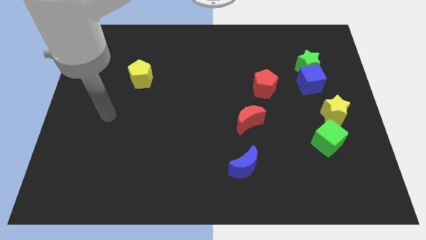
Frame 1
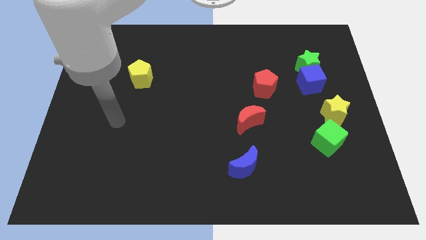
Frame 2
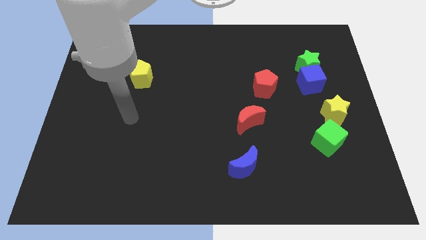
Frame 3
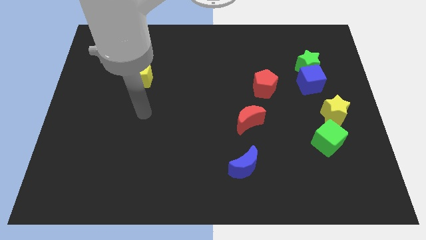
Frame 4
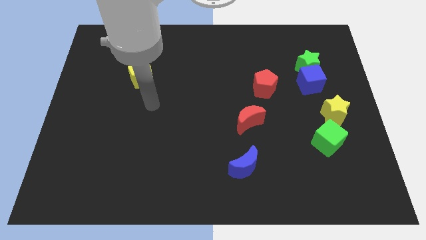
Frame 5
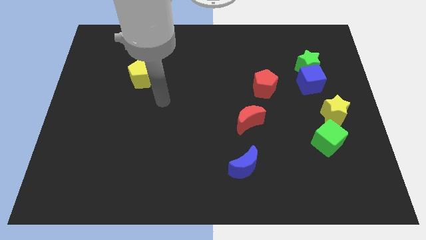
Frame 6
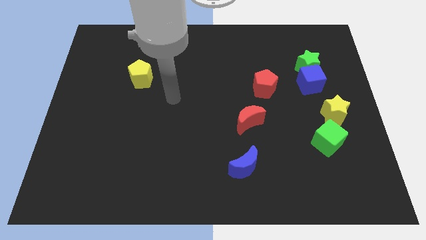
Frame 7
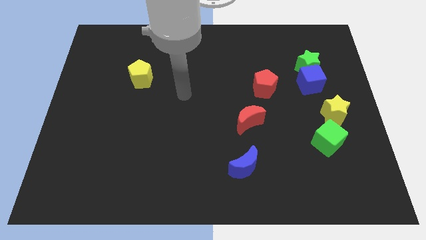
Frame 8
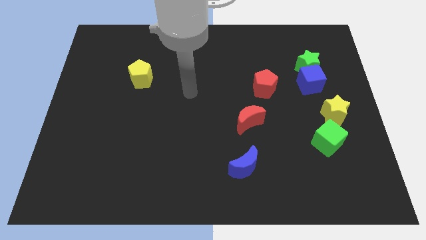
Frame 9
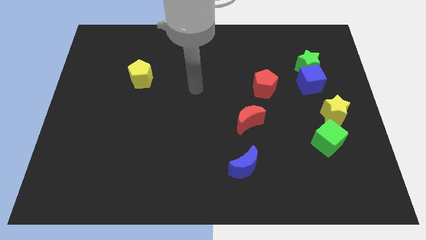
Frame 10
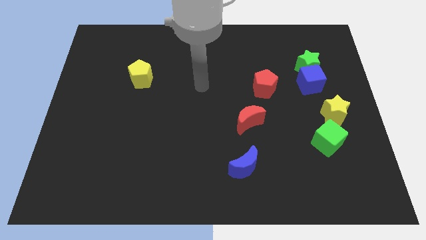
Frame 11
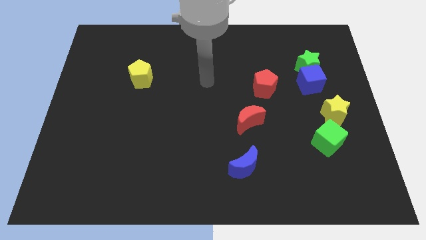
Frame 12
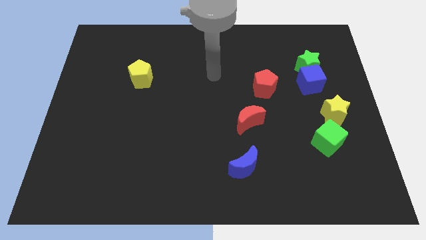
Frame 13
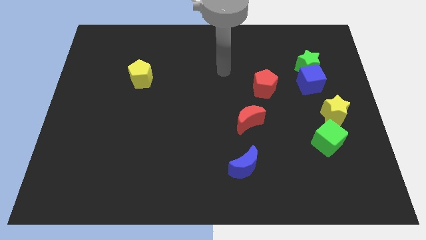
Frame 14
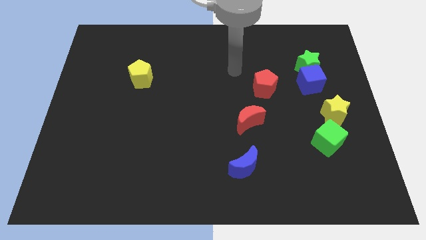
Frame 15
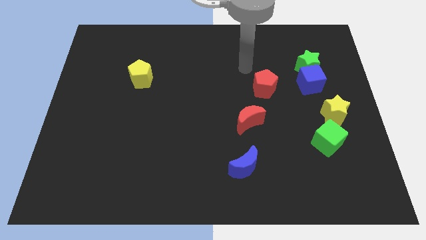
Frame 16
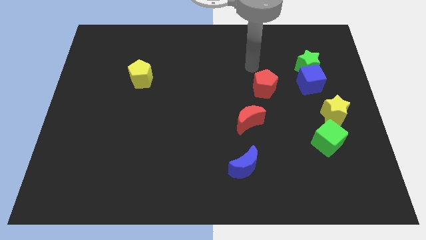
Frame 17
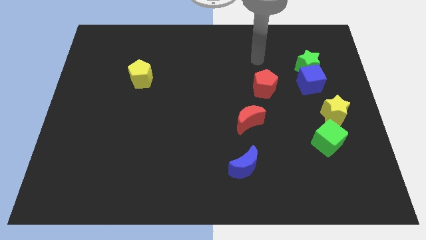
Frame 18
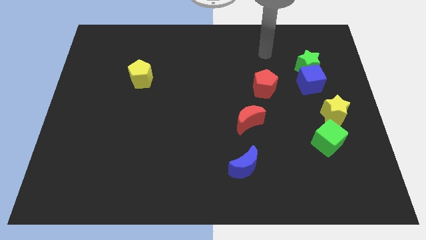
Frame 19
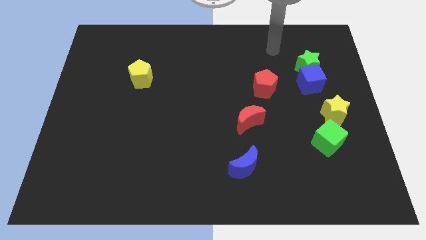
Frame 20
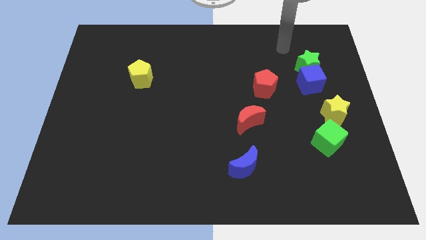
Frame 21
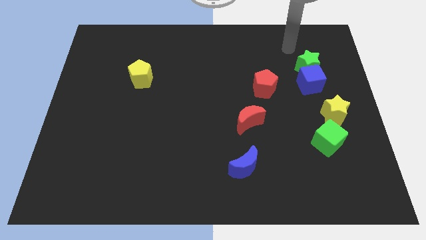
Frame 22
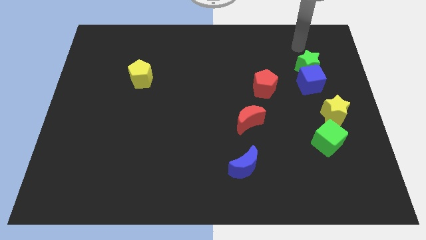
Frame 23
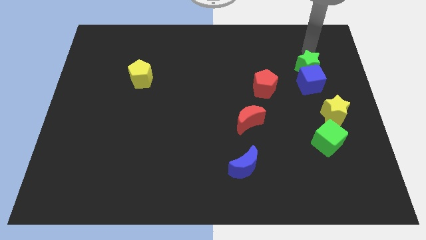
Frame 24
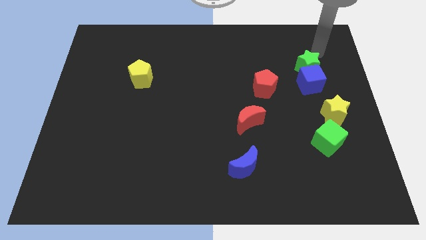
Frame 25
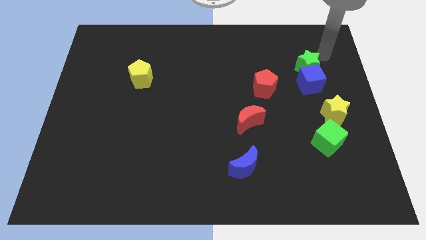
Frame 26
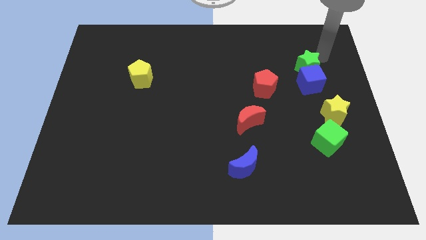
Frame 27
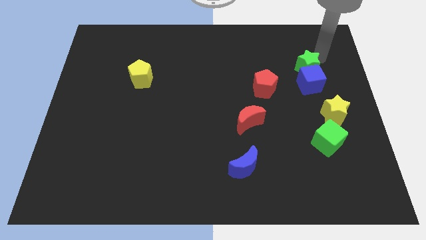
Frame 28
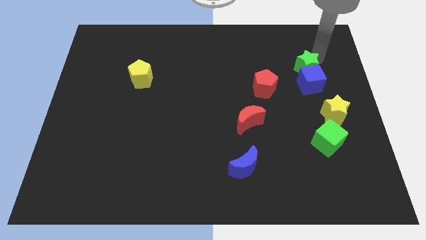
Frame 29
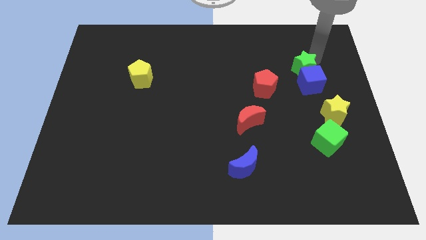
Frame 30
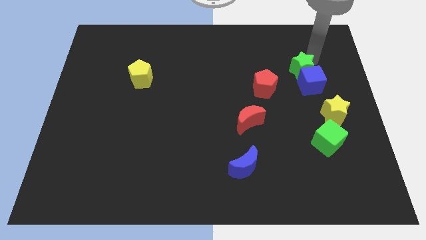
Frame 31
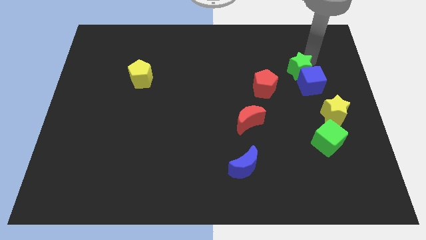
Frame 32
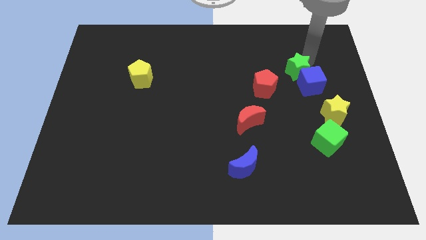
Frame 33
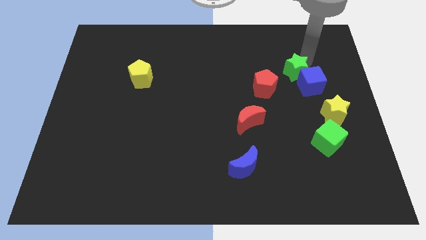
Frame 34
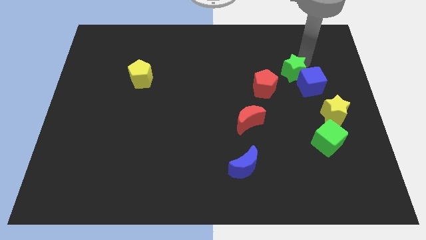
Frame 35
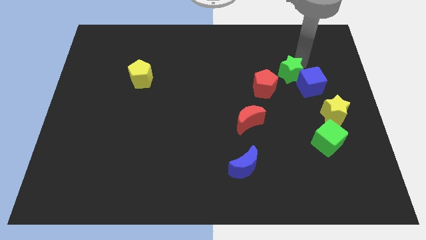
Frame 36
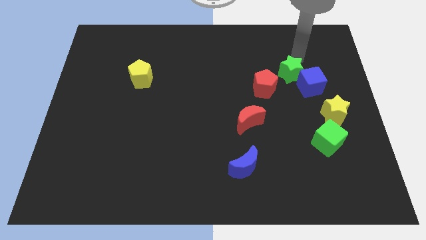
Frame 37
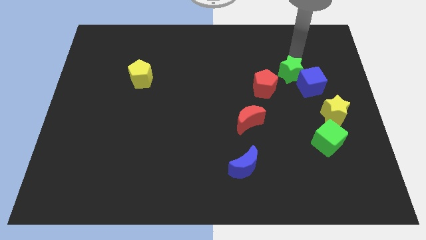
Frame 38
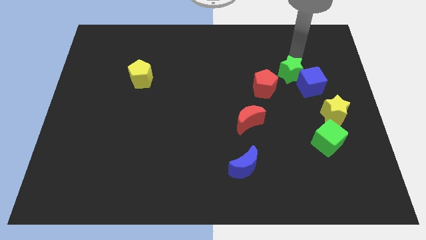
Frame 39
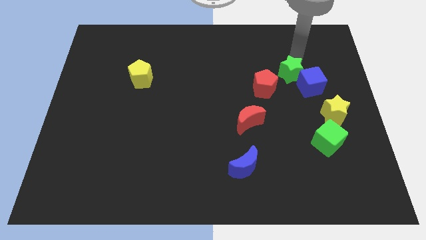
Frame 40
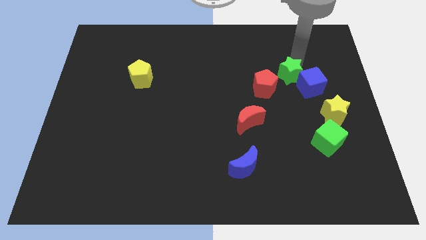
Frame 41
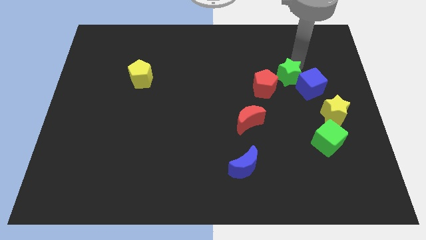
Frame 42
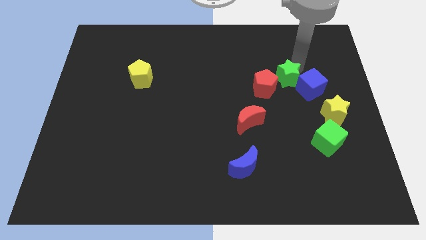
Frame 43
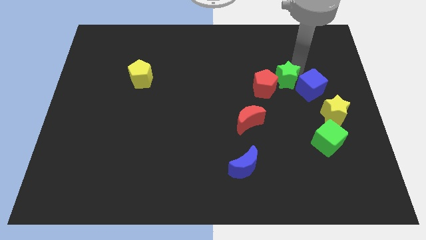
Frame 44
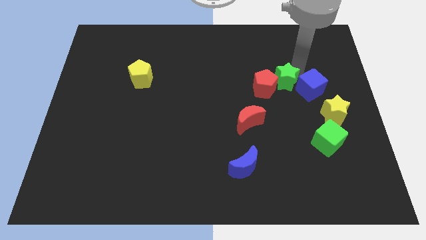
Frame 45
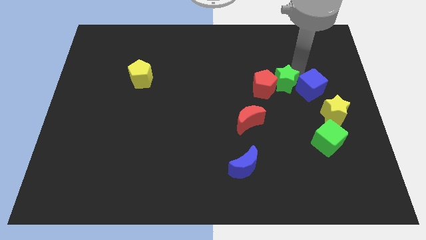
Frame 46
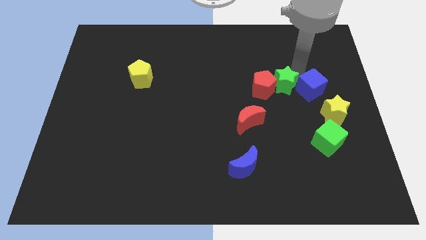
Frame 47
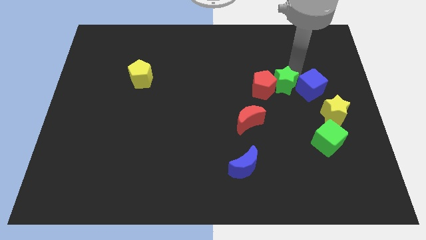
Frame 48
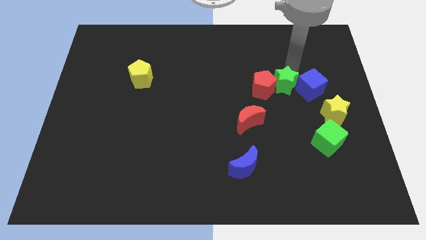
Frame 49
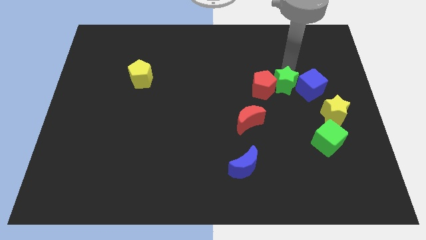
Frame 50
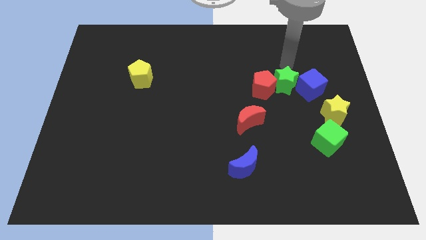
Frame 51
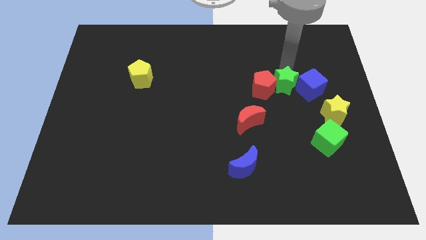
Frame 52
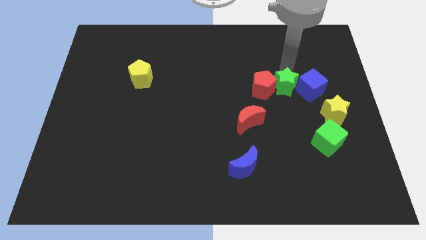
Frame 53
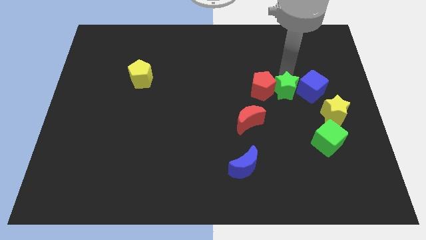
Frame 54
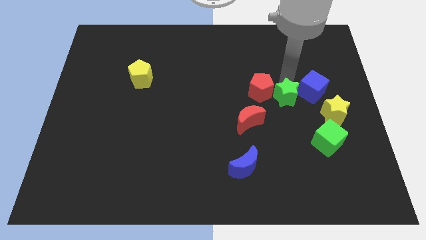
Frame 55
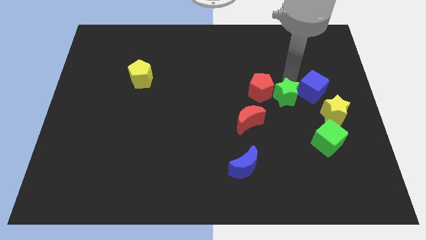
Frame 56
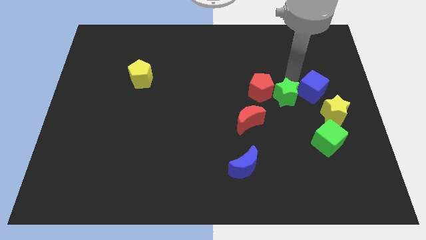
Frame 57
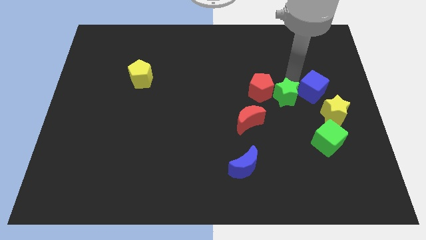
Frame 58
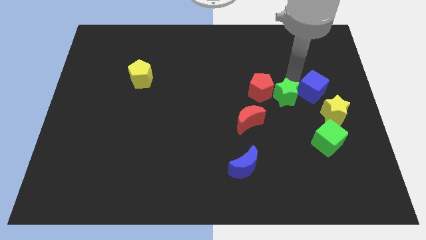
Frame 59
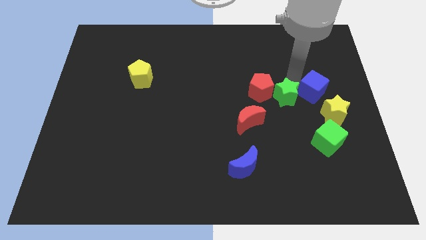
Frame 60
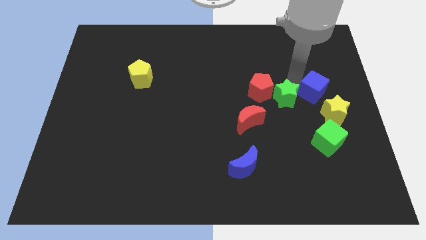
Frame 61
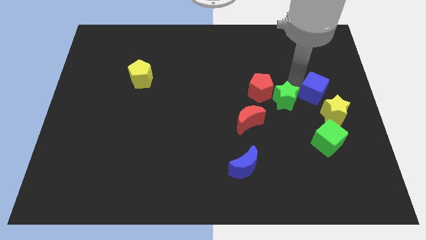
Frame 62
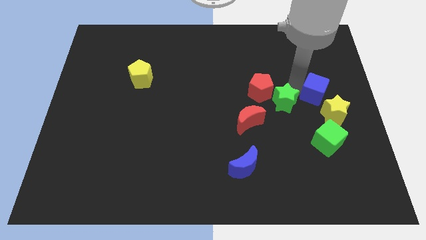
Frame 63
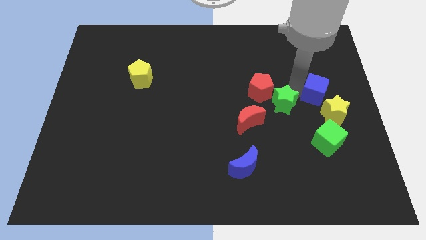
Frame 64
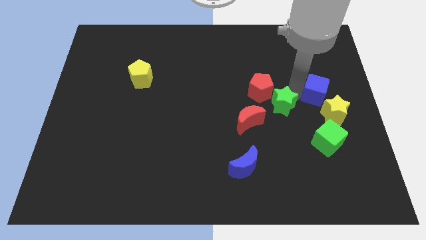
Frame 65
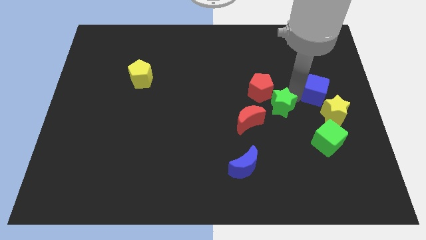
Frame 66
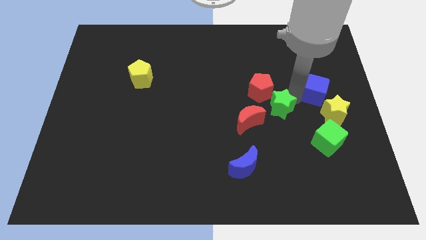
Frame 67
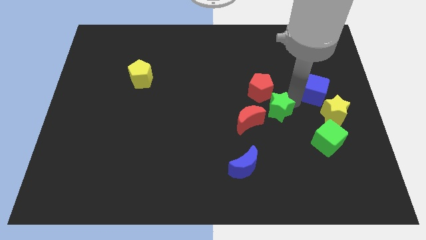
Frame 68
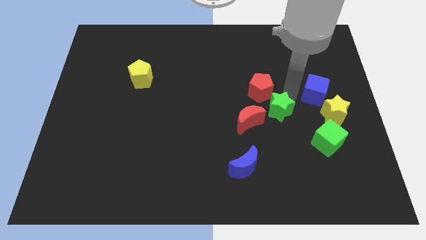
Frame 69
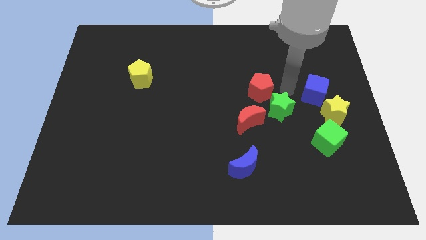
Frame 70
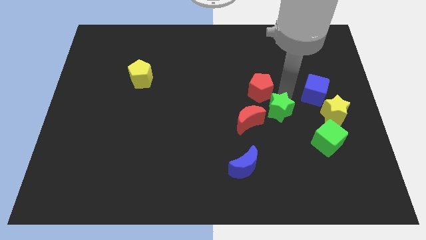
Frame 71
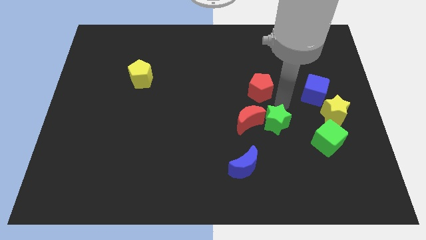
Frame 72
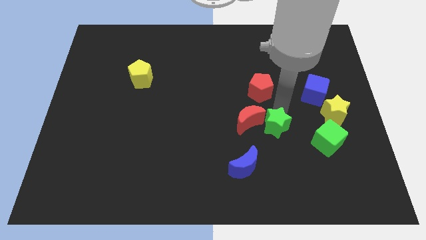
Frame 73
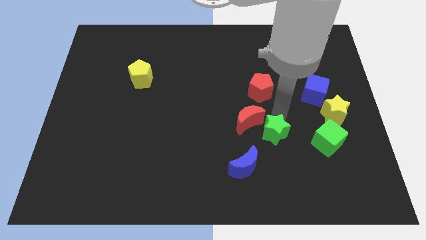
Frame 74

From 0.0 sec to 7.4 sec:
put the green star to the top right side of the blue moon
